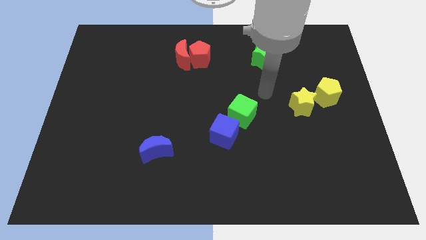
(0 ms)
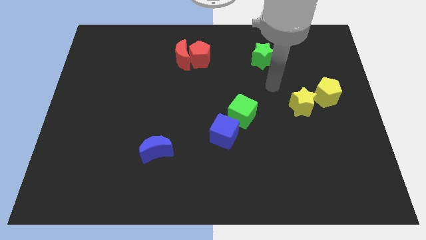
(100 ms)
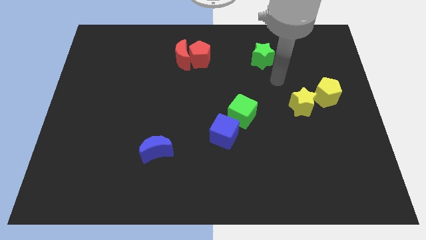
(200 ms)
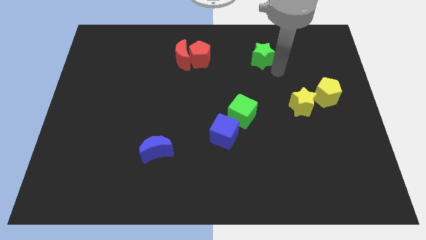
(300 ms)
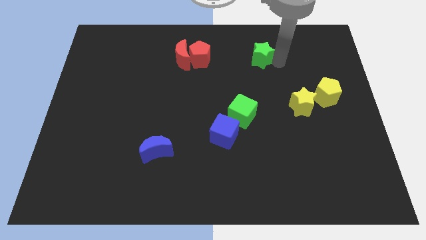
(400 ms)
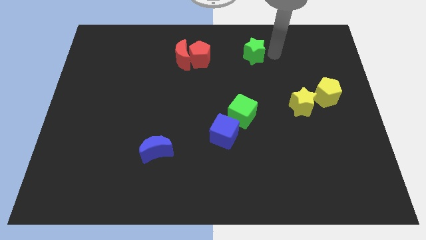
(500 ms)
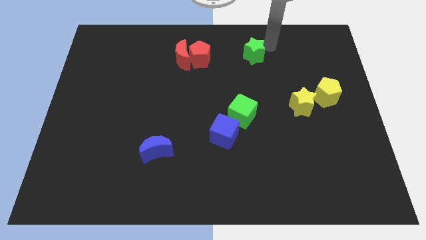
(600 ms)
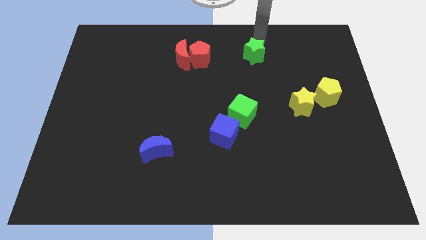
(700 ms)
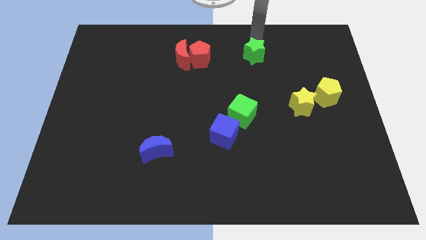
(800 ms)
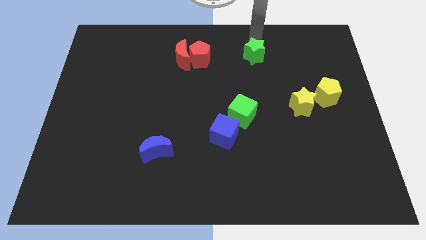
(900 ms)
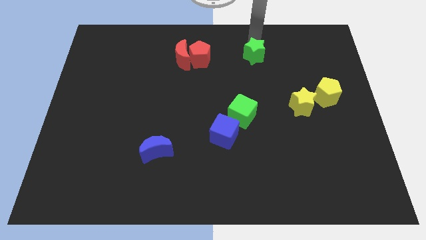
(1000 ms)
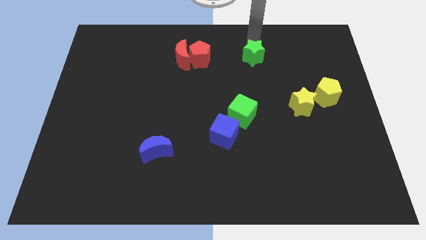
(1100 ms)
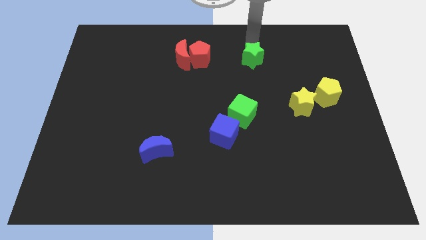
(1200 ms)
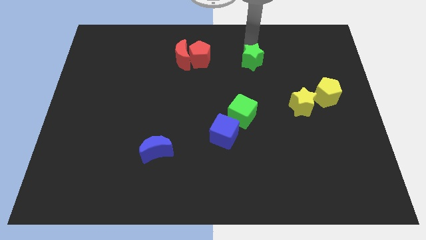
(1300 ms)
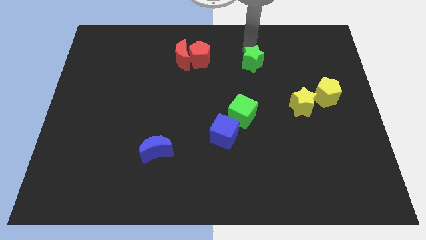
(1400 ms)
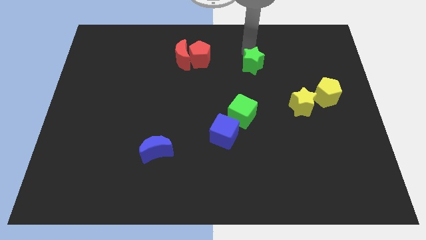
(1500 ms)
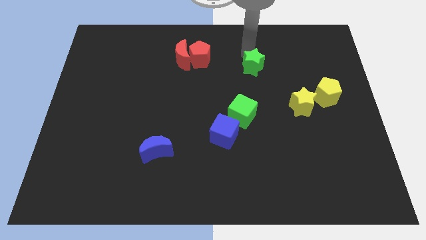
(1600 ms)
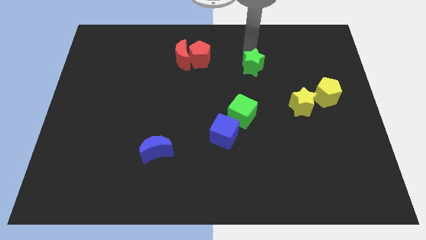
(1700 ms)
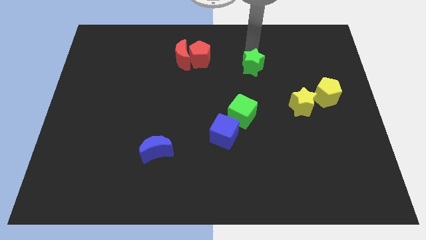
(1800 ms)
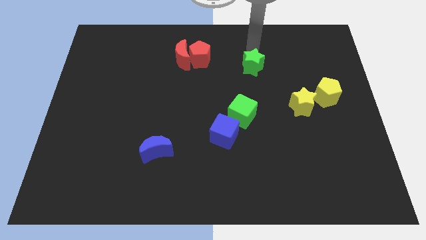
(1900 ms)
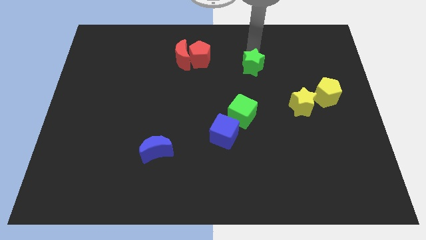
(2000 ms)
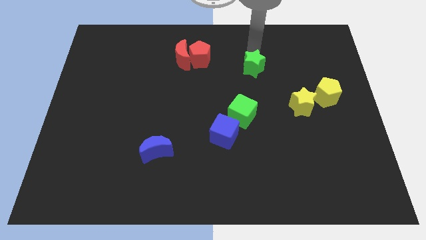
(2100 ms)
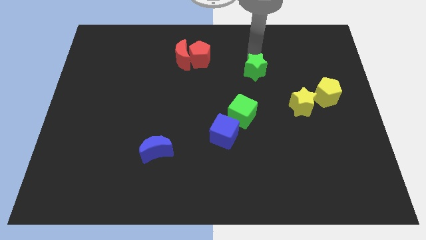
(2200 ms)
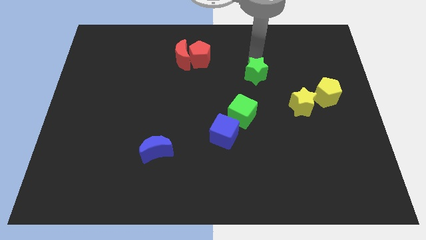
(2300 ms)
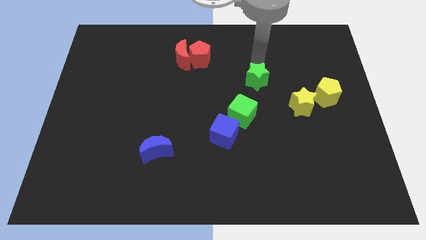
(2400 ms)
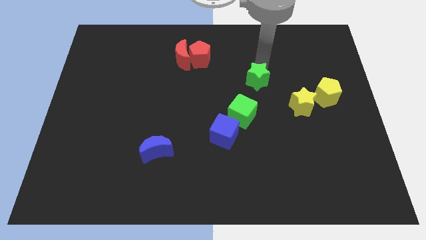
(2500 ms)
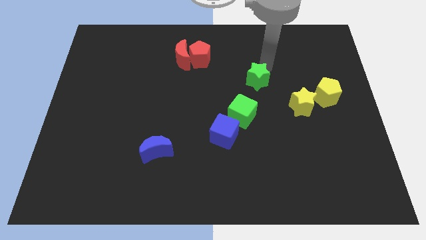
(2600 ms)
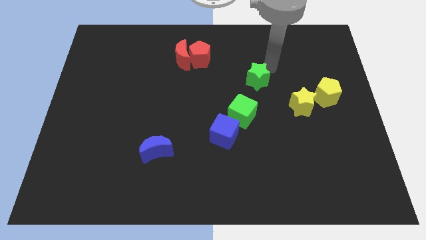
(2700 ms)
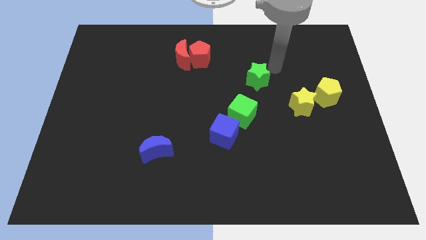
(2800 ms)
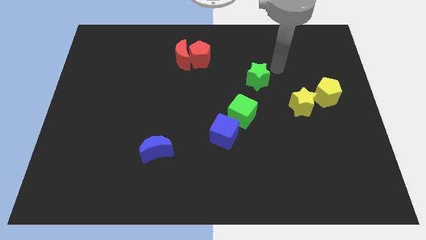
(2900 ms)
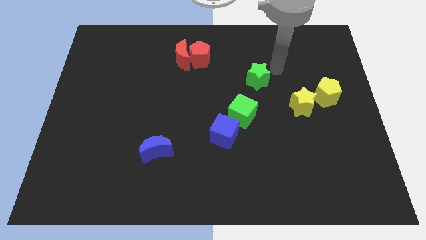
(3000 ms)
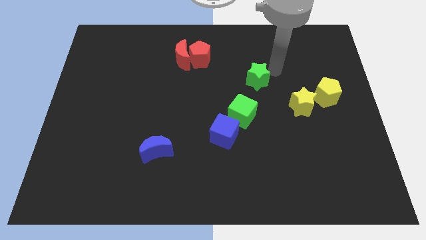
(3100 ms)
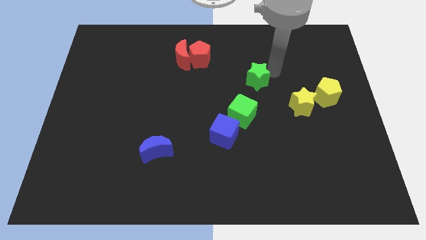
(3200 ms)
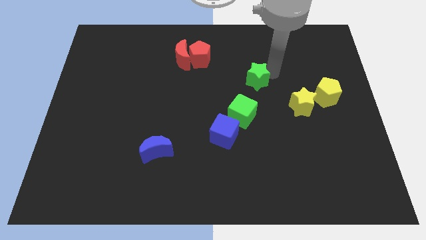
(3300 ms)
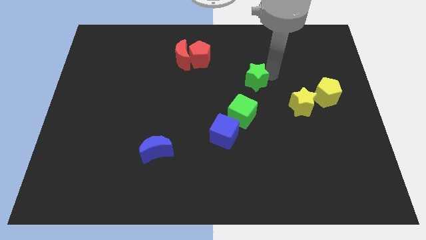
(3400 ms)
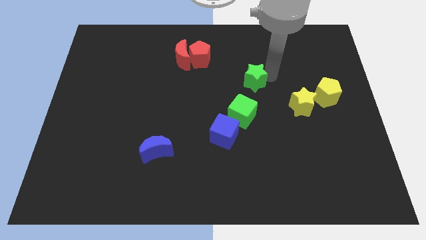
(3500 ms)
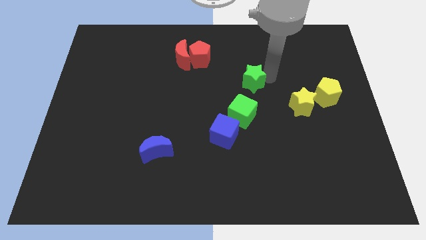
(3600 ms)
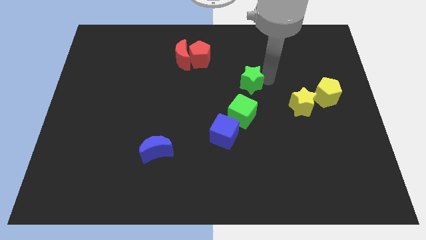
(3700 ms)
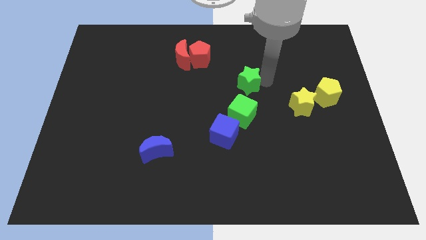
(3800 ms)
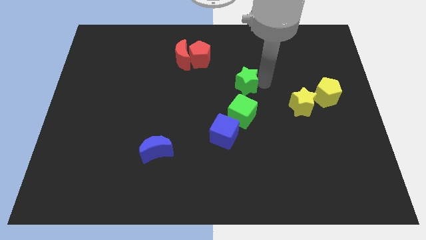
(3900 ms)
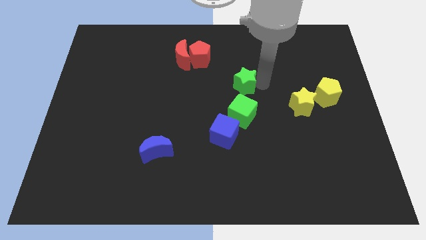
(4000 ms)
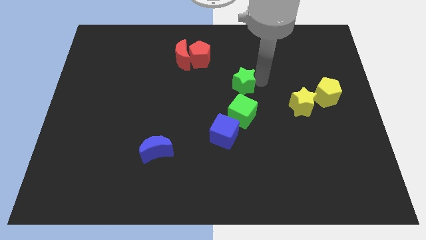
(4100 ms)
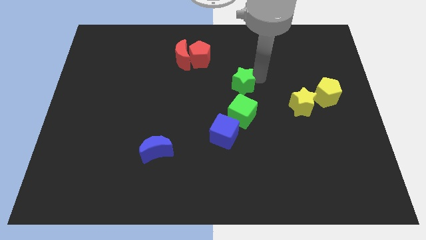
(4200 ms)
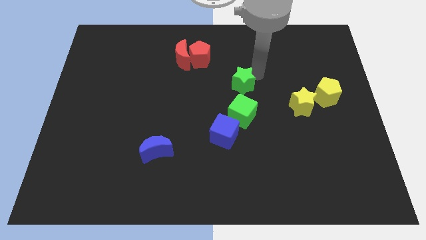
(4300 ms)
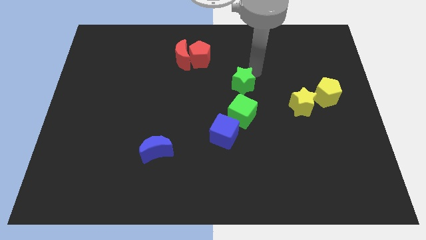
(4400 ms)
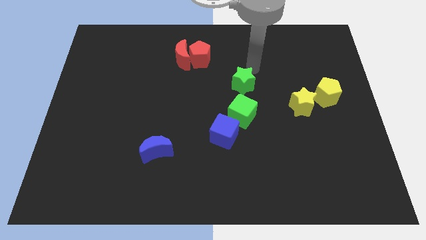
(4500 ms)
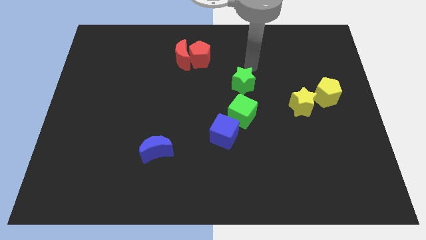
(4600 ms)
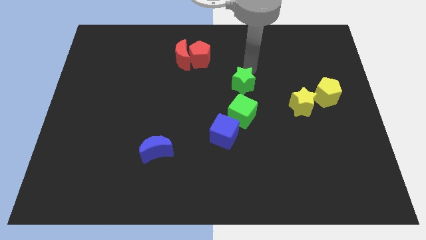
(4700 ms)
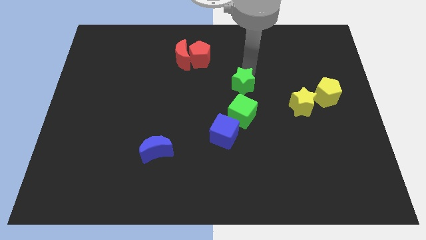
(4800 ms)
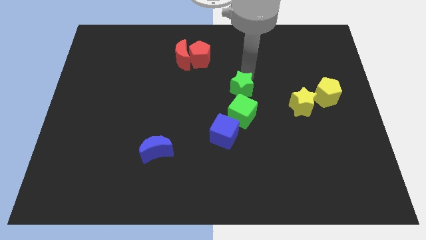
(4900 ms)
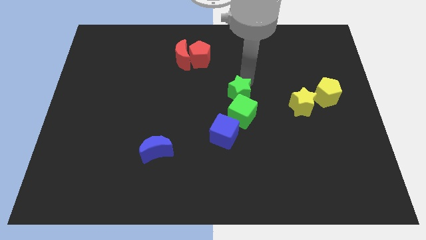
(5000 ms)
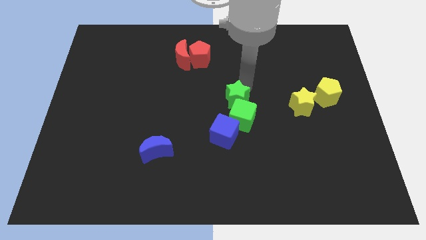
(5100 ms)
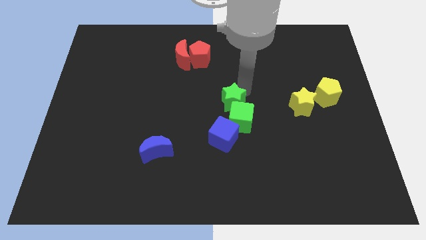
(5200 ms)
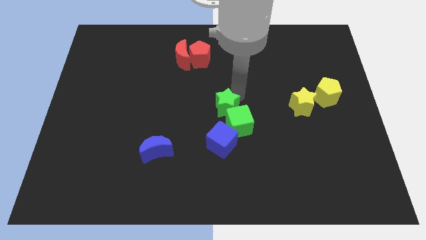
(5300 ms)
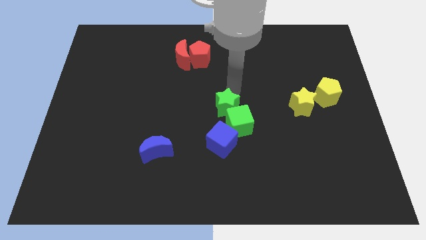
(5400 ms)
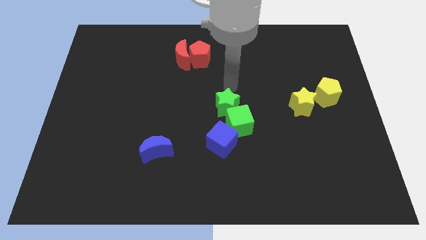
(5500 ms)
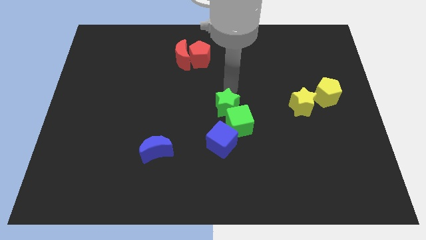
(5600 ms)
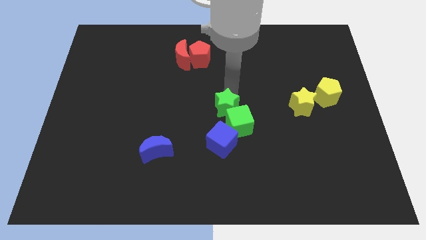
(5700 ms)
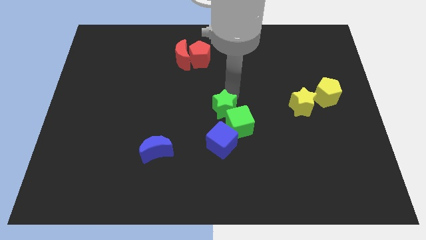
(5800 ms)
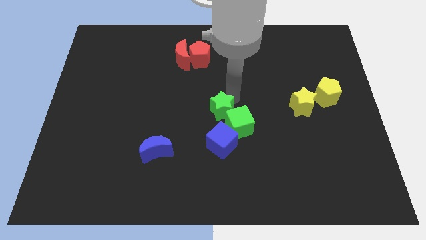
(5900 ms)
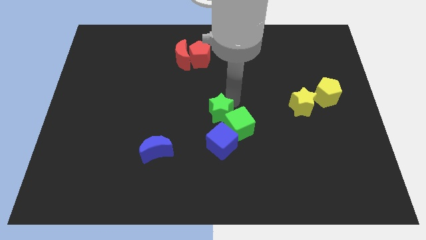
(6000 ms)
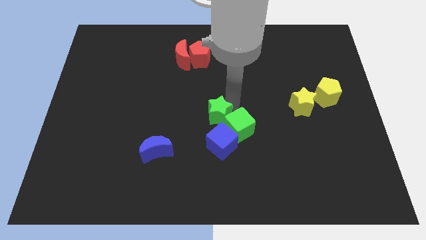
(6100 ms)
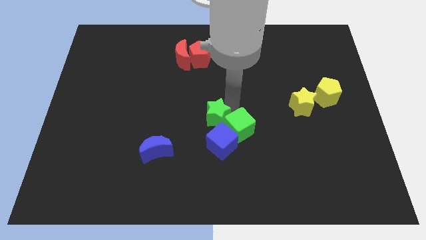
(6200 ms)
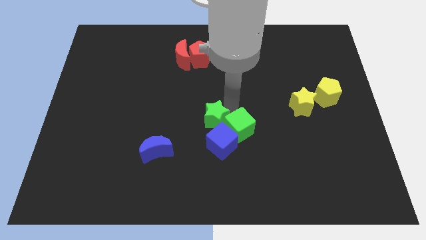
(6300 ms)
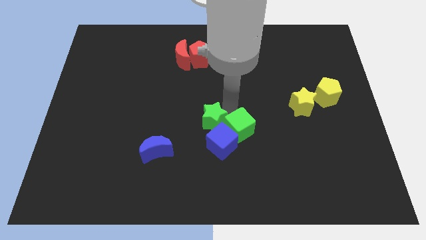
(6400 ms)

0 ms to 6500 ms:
slide the green star close to the blue cube

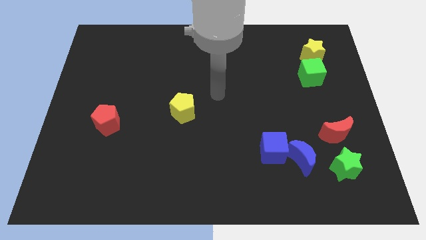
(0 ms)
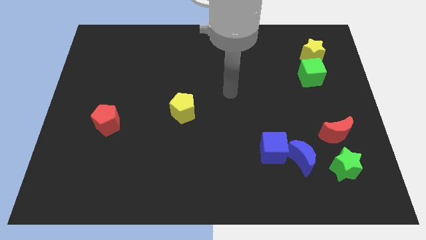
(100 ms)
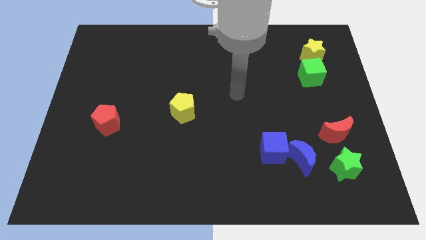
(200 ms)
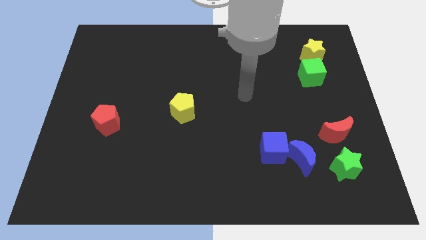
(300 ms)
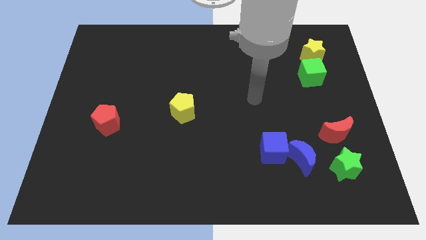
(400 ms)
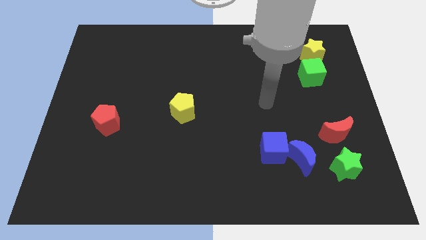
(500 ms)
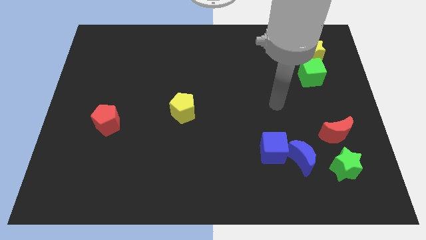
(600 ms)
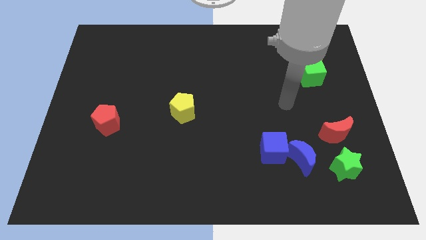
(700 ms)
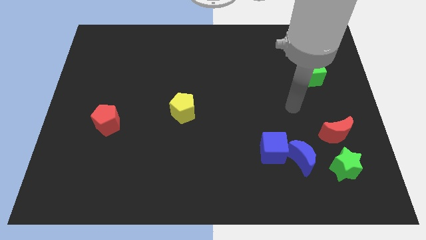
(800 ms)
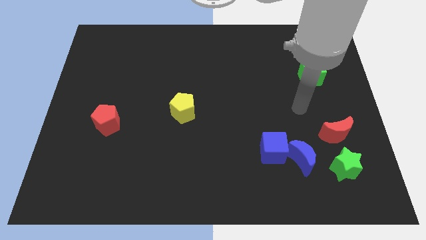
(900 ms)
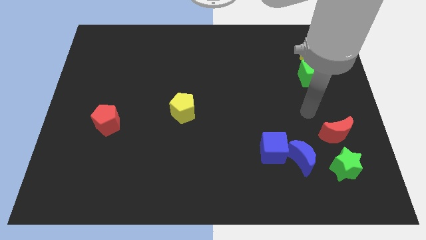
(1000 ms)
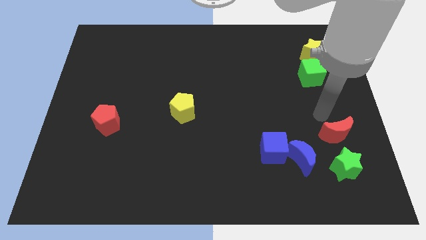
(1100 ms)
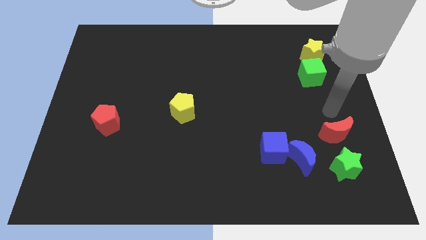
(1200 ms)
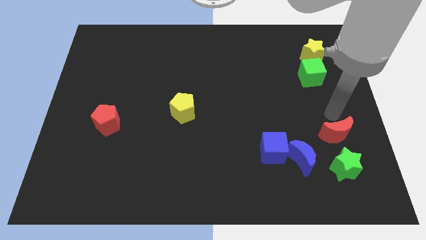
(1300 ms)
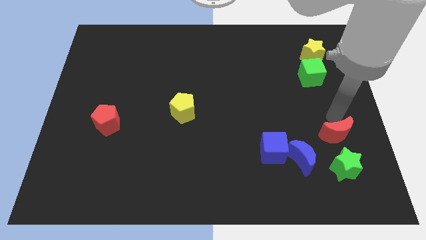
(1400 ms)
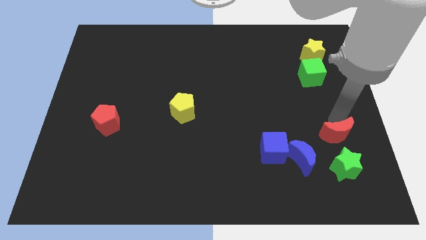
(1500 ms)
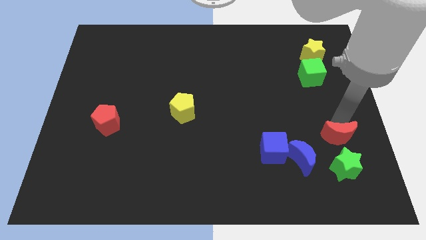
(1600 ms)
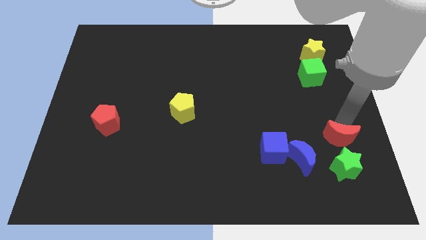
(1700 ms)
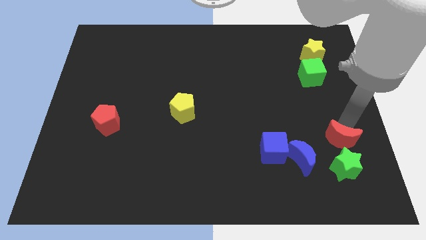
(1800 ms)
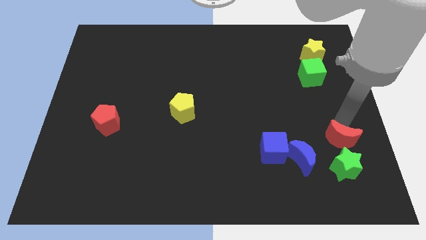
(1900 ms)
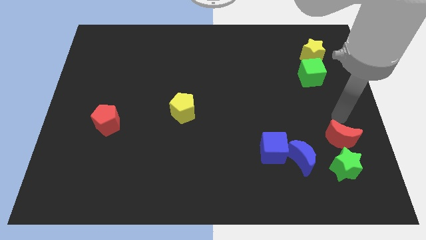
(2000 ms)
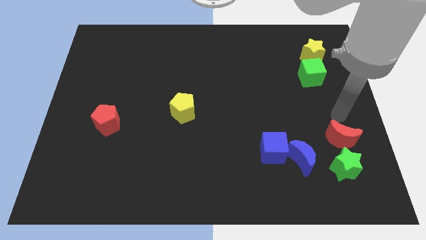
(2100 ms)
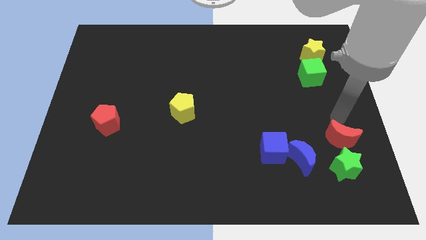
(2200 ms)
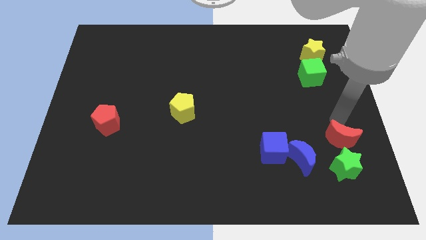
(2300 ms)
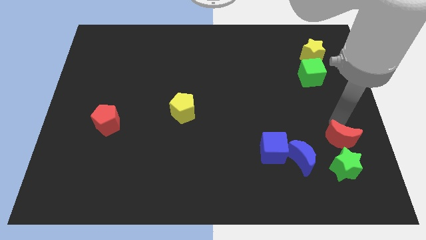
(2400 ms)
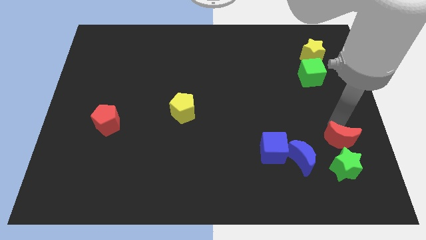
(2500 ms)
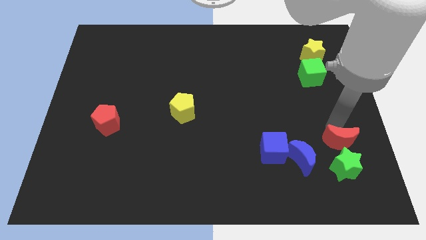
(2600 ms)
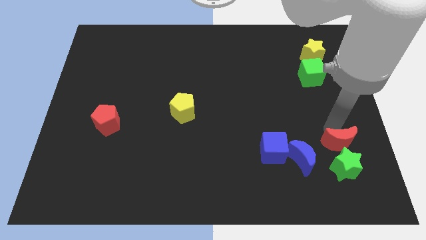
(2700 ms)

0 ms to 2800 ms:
push the red moon to the green star
